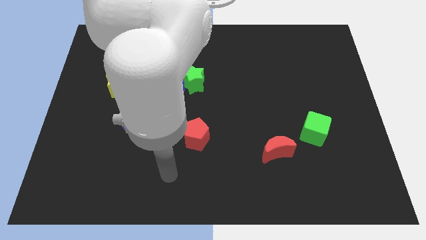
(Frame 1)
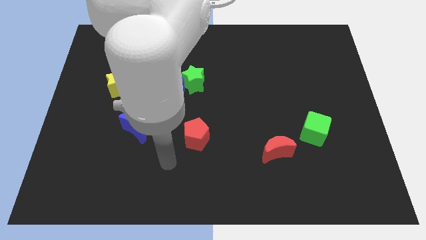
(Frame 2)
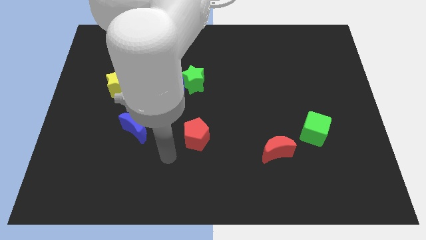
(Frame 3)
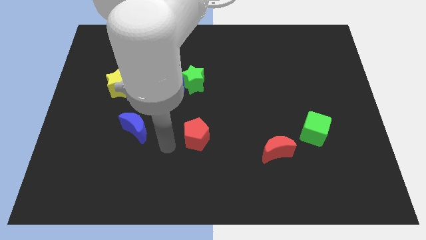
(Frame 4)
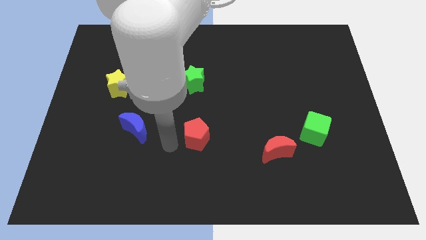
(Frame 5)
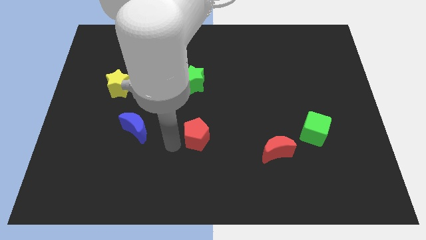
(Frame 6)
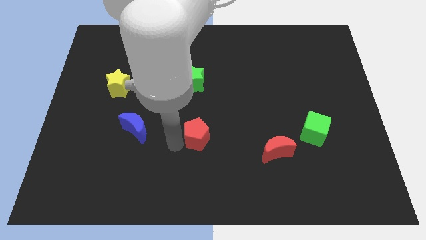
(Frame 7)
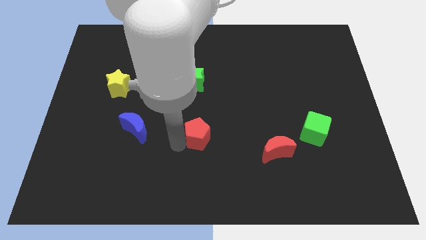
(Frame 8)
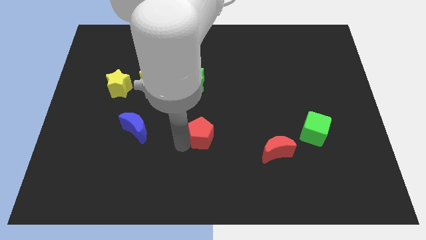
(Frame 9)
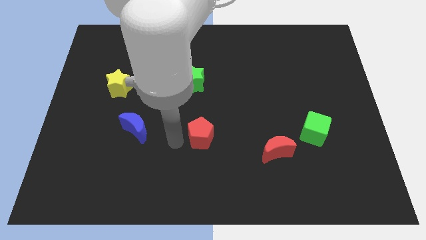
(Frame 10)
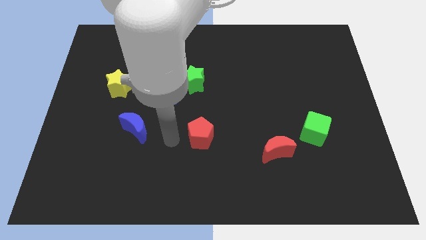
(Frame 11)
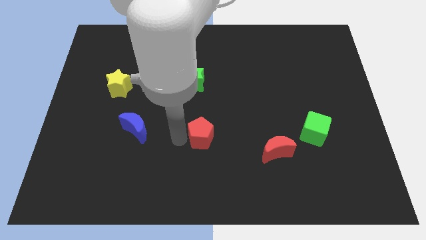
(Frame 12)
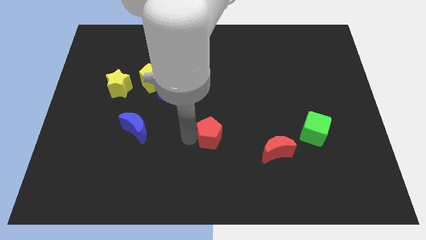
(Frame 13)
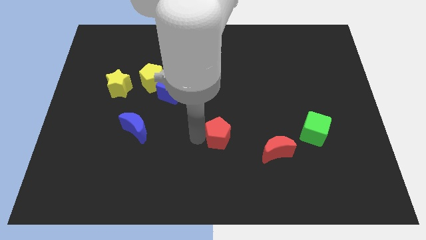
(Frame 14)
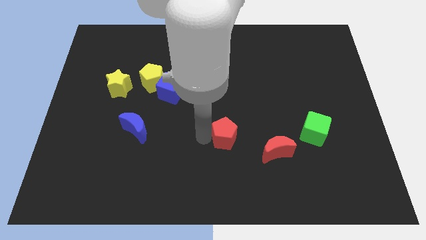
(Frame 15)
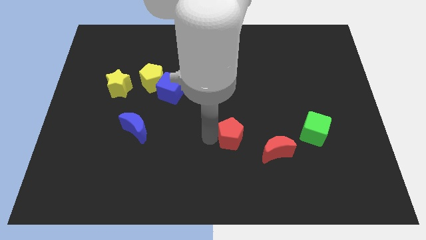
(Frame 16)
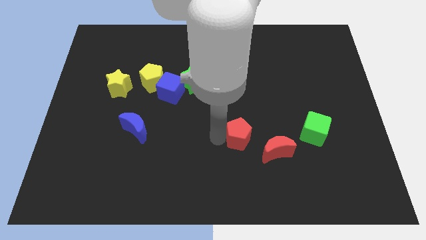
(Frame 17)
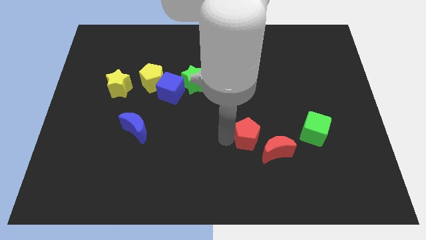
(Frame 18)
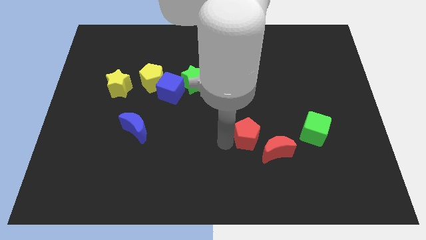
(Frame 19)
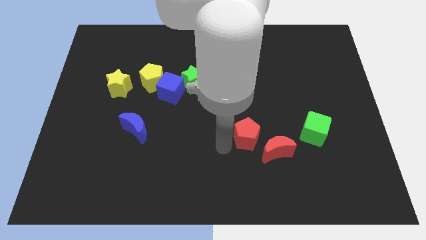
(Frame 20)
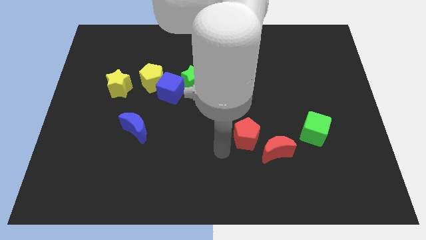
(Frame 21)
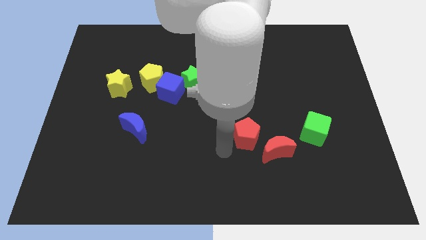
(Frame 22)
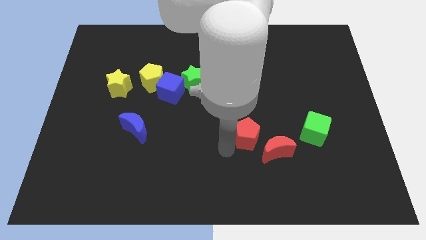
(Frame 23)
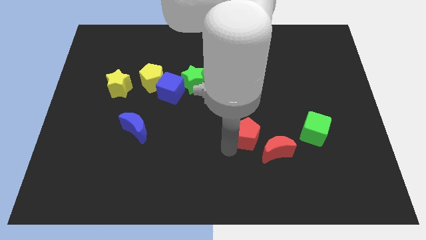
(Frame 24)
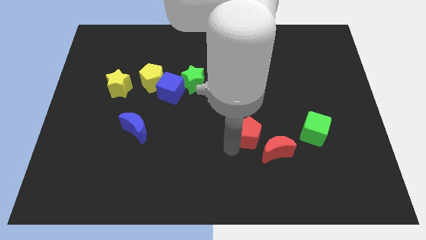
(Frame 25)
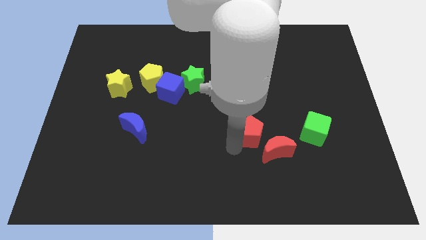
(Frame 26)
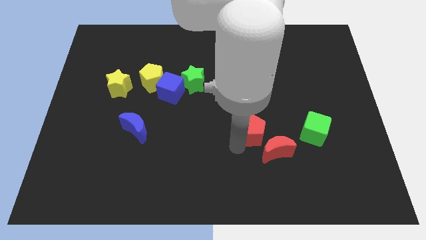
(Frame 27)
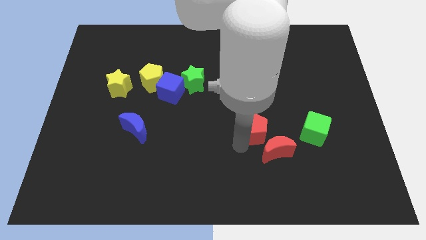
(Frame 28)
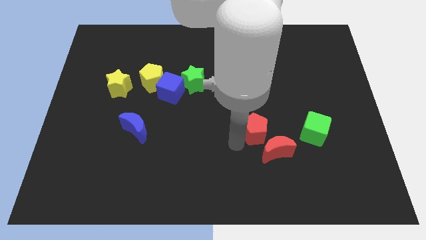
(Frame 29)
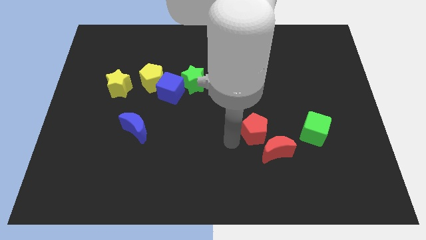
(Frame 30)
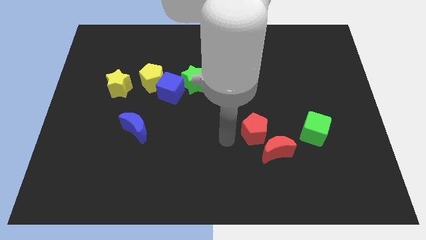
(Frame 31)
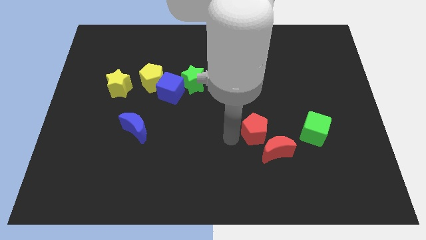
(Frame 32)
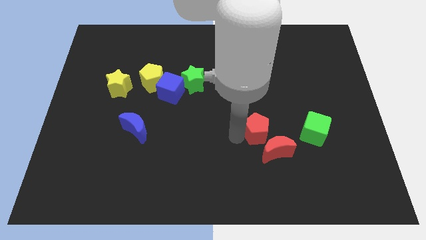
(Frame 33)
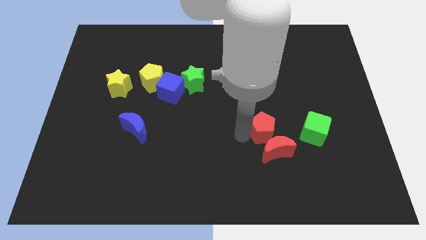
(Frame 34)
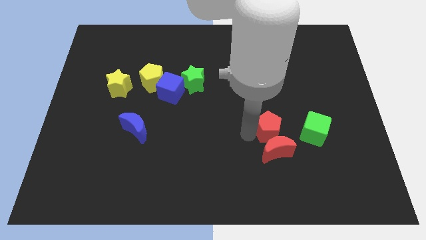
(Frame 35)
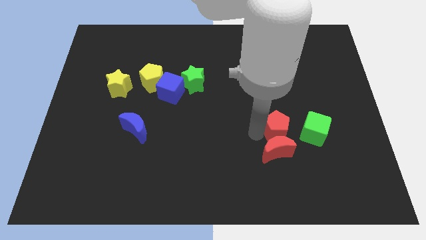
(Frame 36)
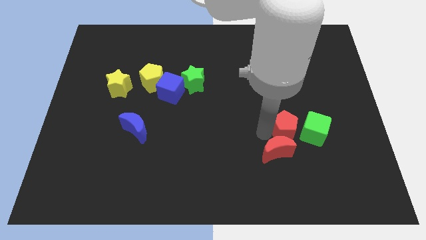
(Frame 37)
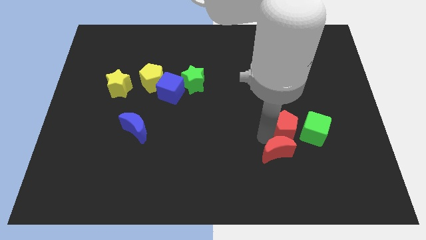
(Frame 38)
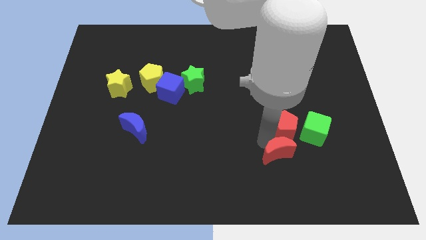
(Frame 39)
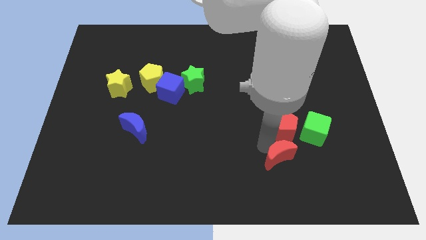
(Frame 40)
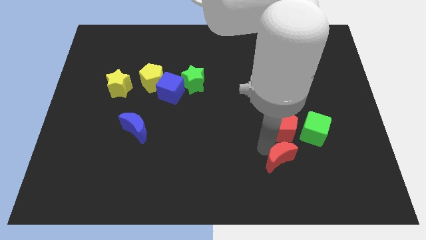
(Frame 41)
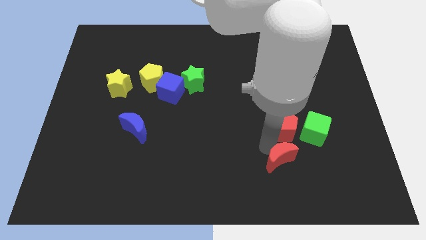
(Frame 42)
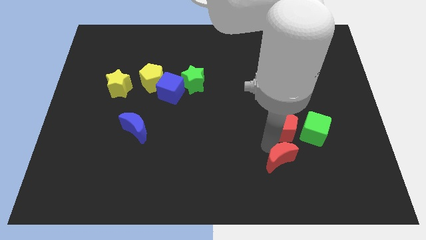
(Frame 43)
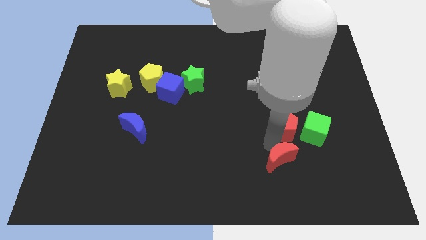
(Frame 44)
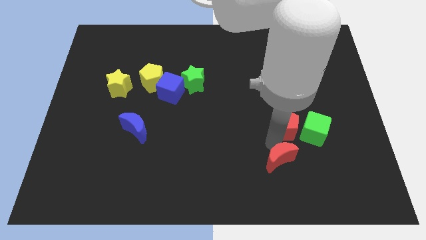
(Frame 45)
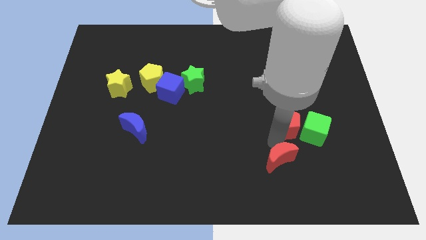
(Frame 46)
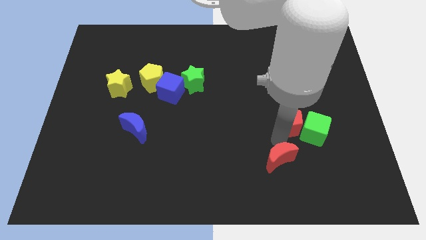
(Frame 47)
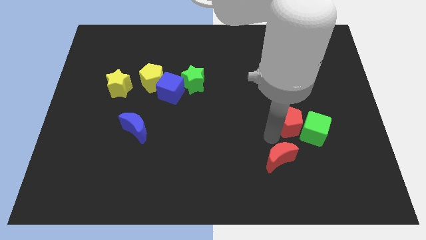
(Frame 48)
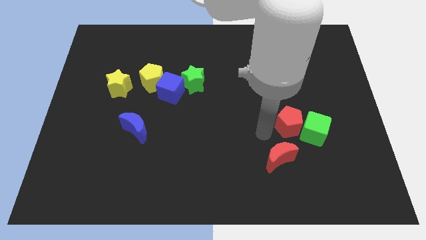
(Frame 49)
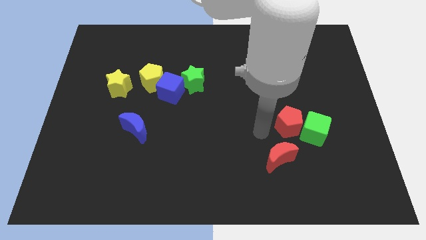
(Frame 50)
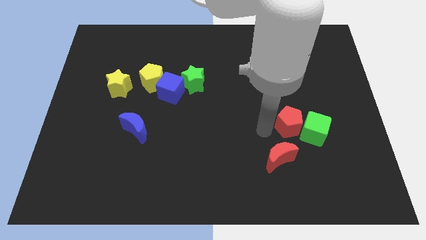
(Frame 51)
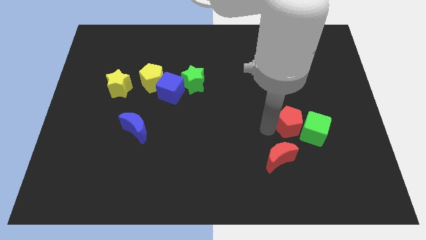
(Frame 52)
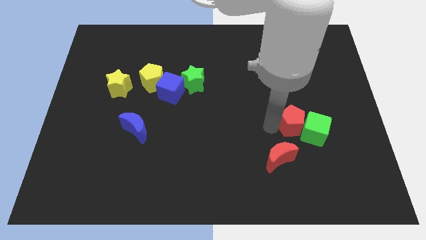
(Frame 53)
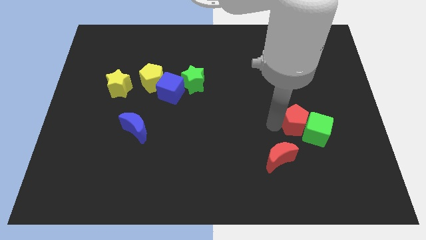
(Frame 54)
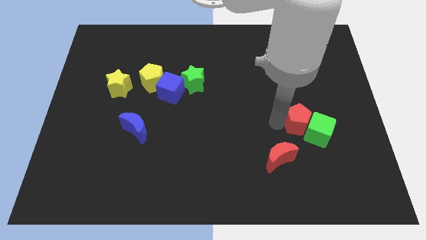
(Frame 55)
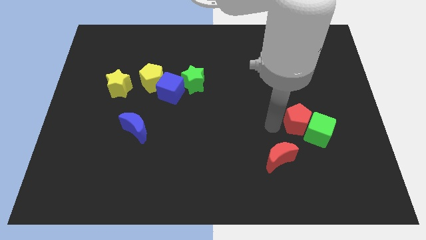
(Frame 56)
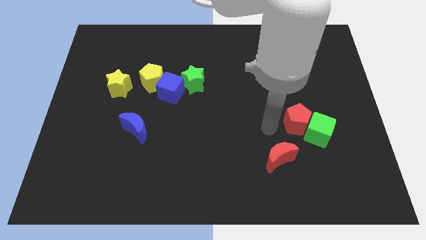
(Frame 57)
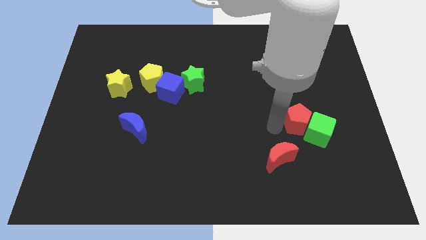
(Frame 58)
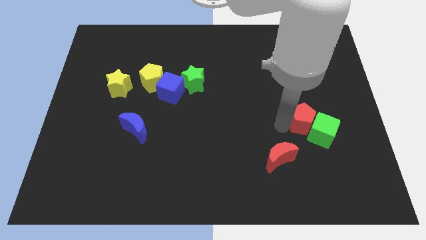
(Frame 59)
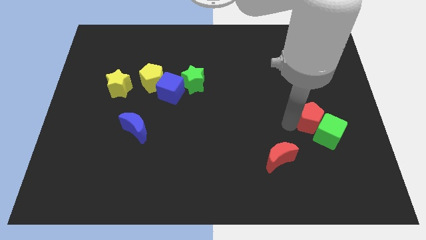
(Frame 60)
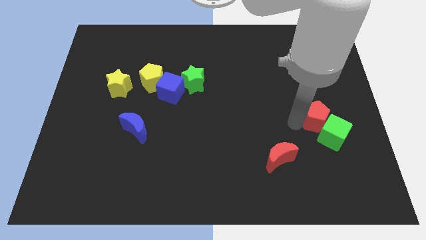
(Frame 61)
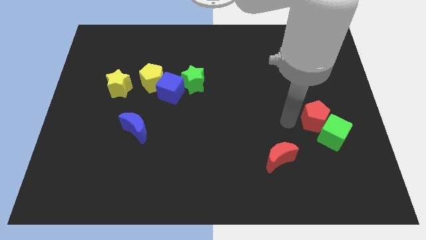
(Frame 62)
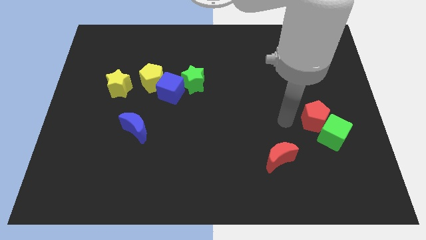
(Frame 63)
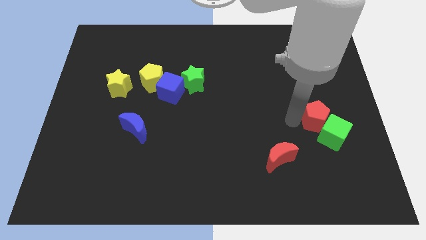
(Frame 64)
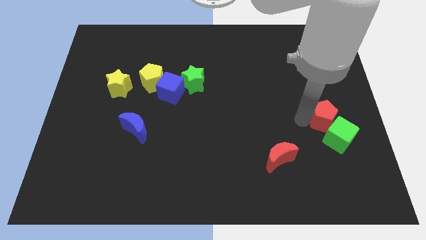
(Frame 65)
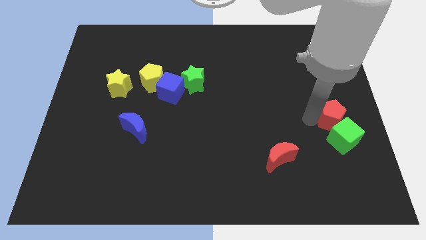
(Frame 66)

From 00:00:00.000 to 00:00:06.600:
put the red pentagon to the right side of the board

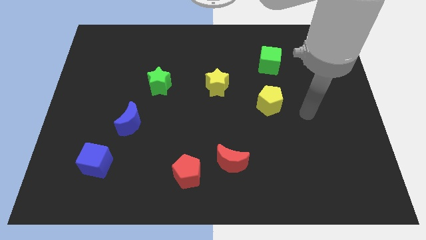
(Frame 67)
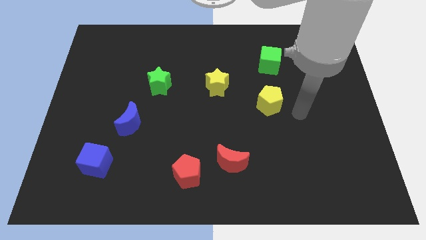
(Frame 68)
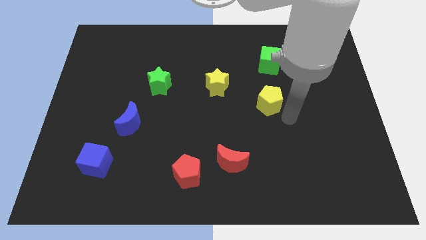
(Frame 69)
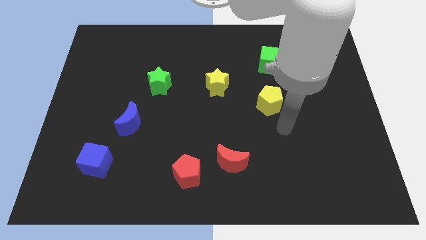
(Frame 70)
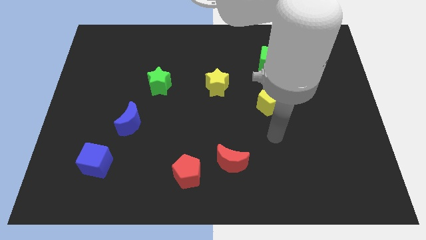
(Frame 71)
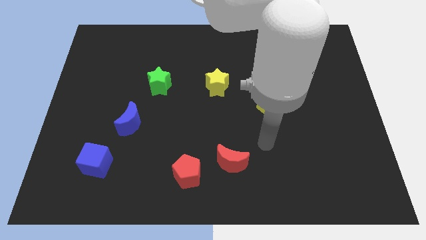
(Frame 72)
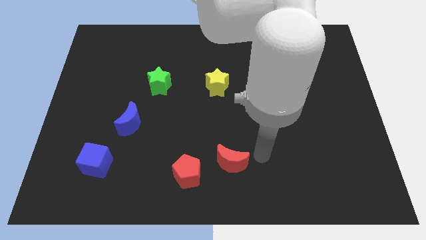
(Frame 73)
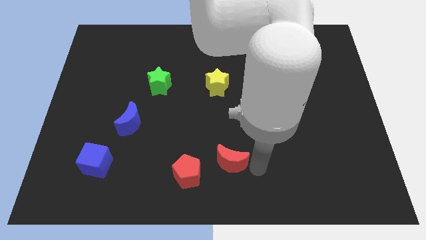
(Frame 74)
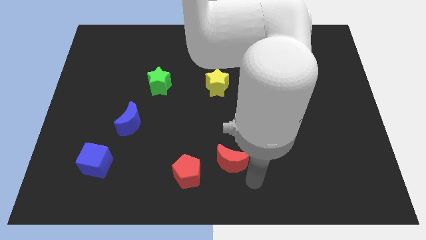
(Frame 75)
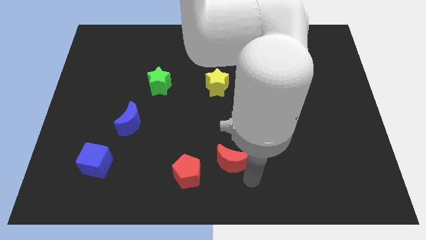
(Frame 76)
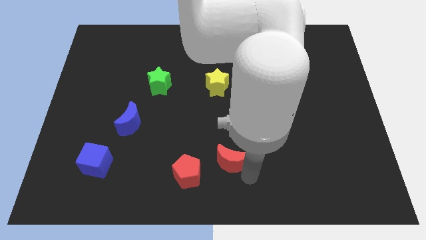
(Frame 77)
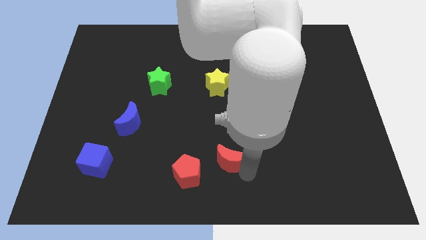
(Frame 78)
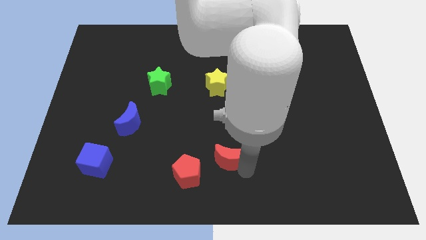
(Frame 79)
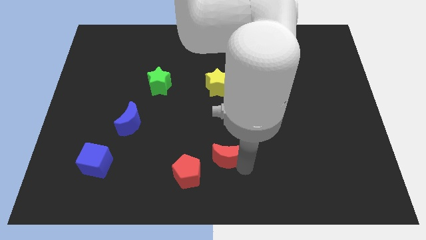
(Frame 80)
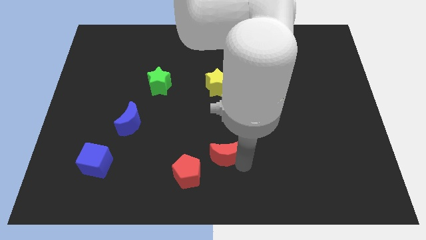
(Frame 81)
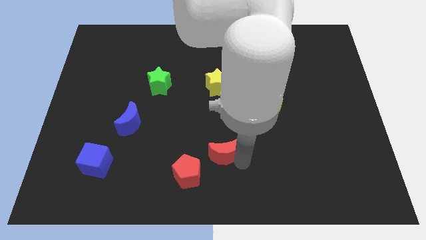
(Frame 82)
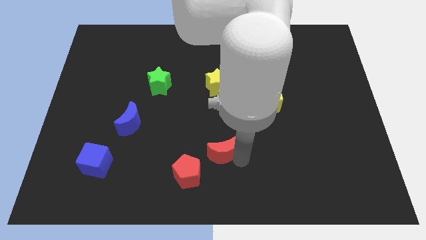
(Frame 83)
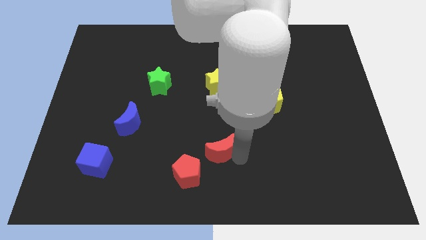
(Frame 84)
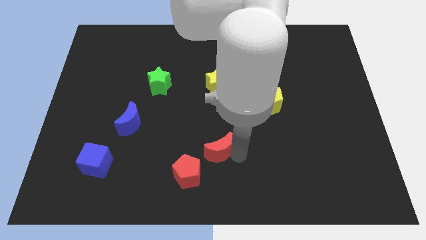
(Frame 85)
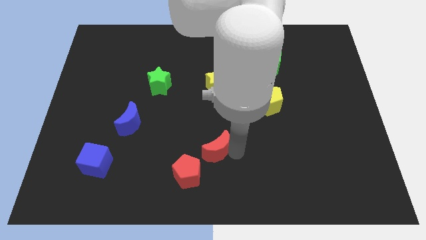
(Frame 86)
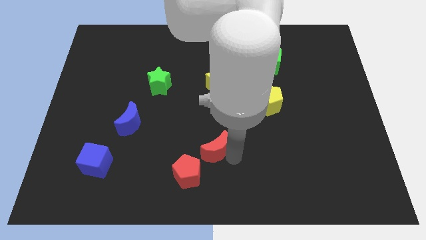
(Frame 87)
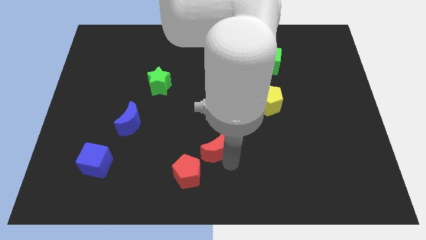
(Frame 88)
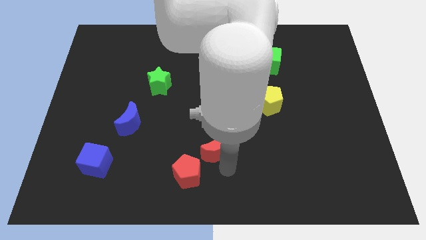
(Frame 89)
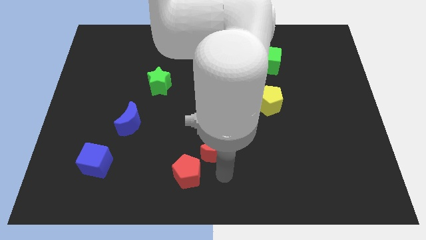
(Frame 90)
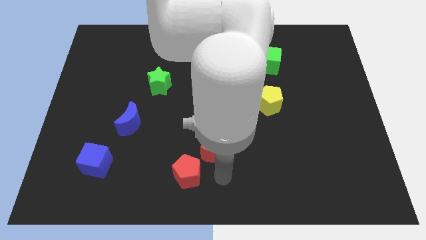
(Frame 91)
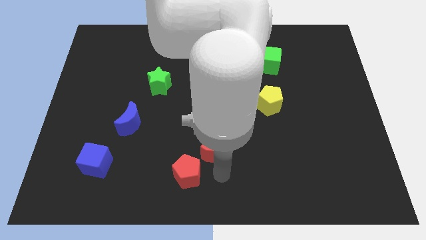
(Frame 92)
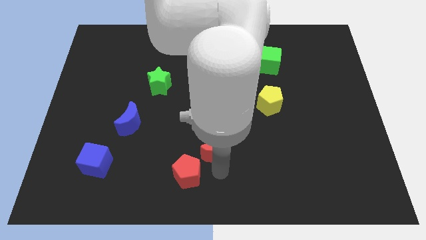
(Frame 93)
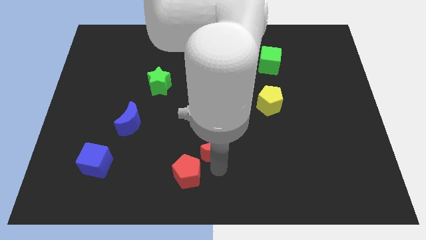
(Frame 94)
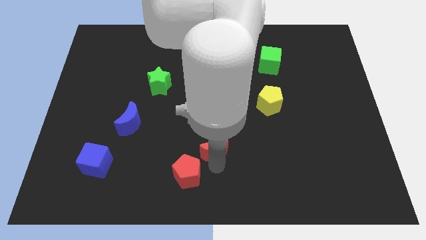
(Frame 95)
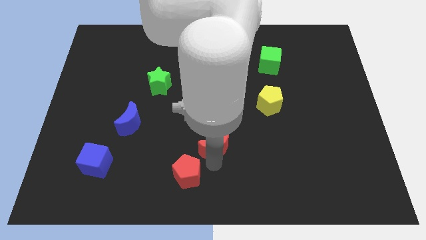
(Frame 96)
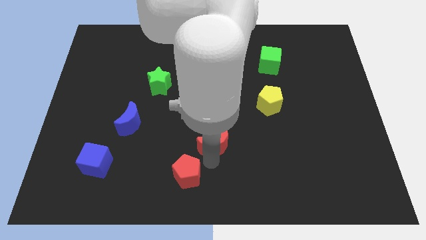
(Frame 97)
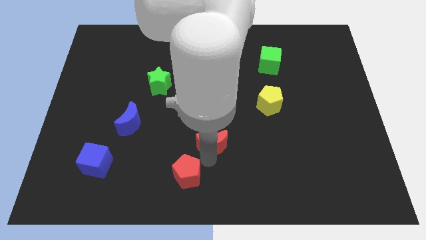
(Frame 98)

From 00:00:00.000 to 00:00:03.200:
slide the red moon to the center
